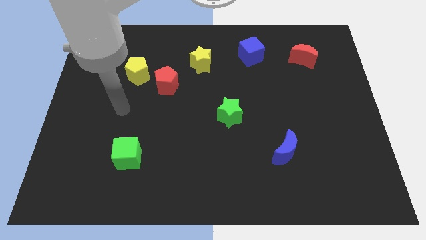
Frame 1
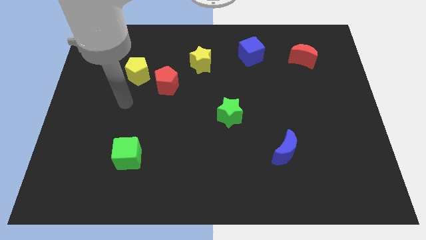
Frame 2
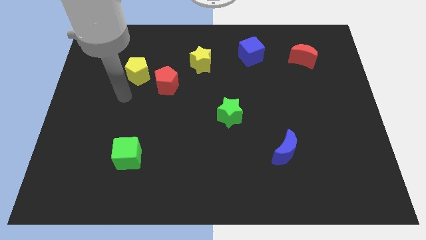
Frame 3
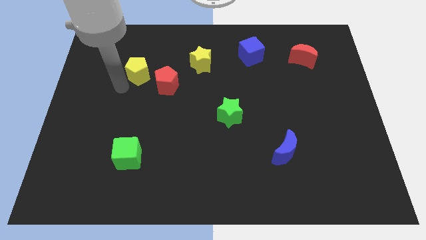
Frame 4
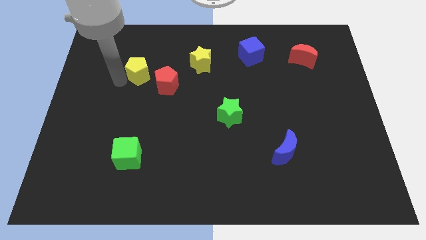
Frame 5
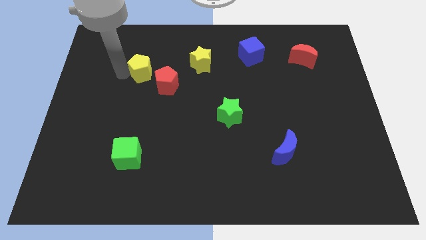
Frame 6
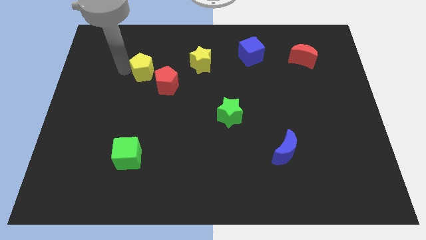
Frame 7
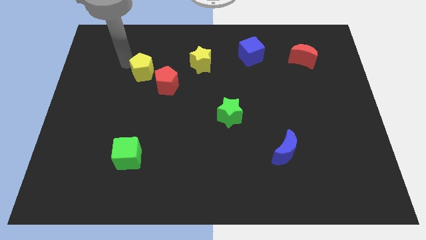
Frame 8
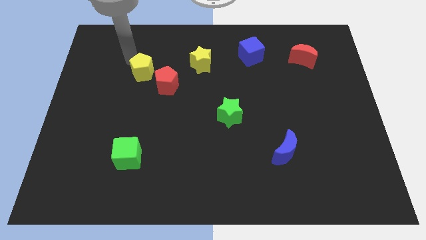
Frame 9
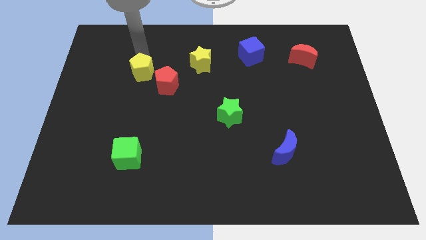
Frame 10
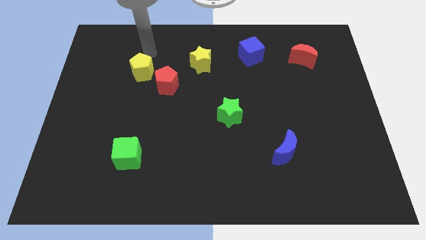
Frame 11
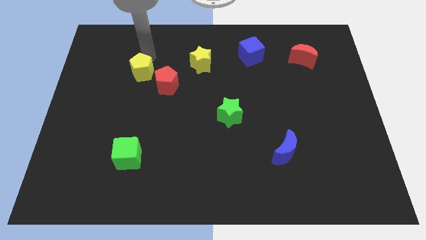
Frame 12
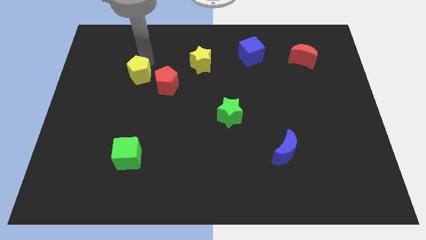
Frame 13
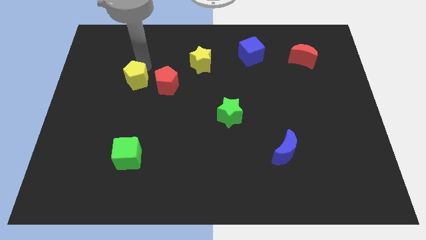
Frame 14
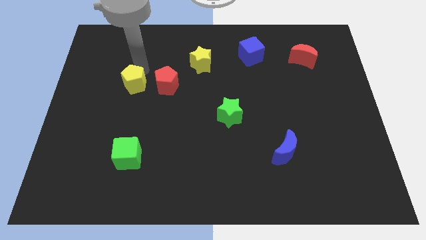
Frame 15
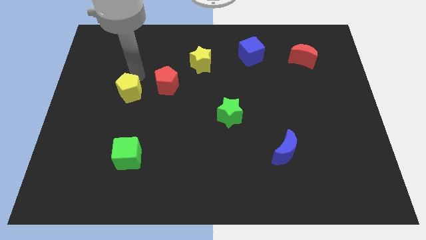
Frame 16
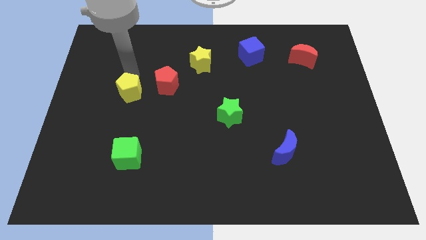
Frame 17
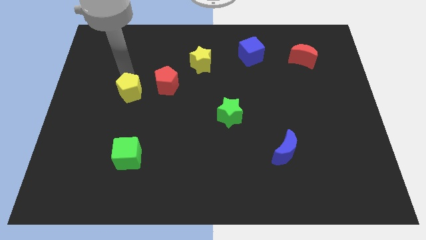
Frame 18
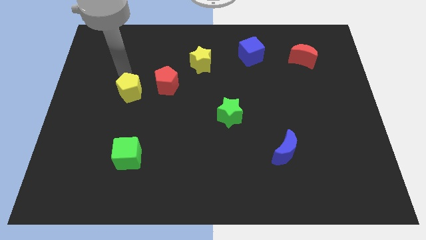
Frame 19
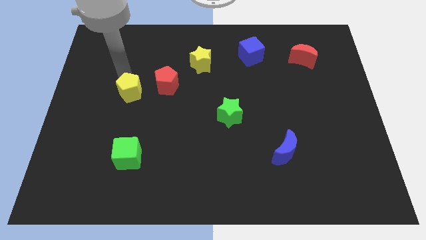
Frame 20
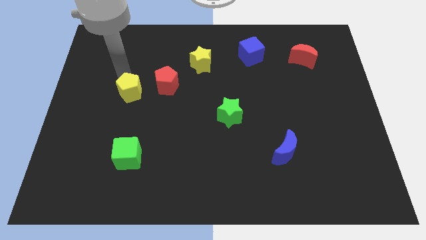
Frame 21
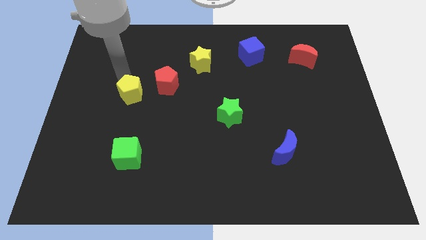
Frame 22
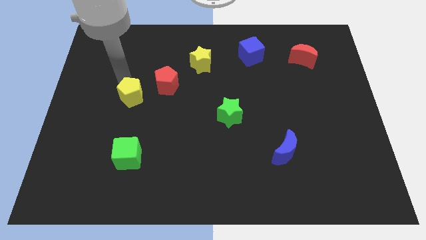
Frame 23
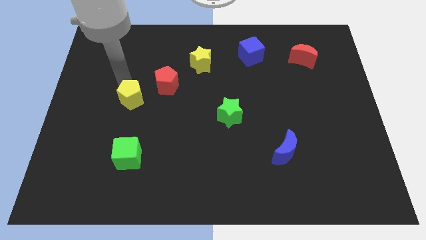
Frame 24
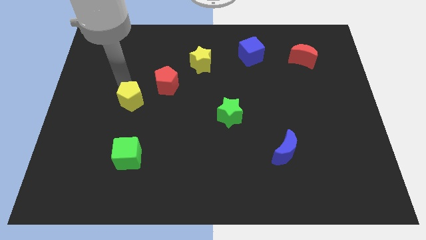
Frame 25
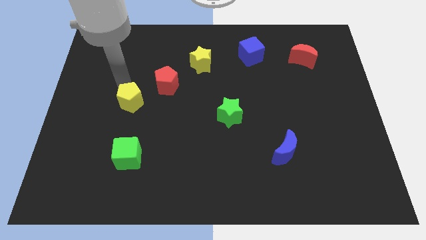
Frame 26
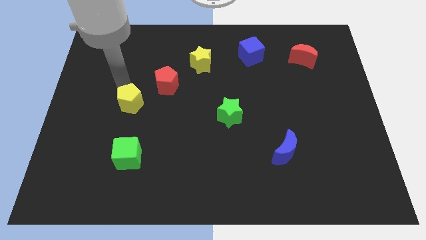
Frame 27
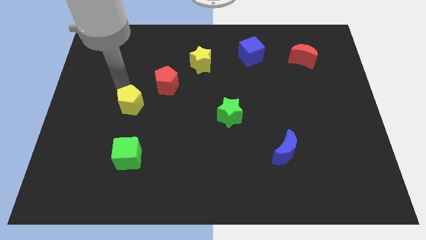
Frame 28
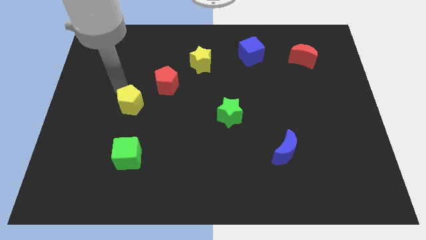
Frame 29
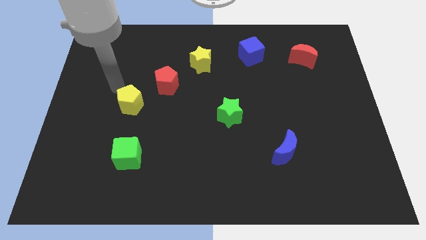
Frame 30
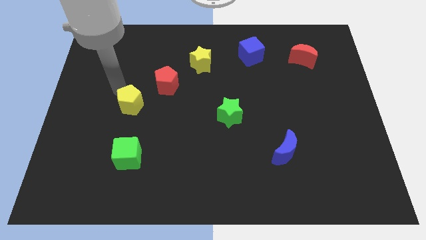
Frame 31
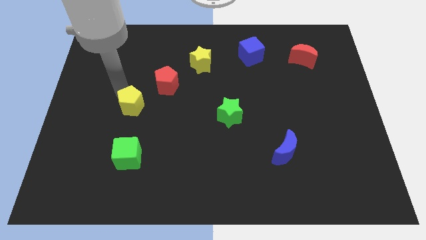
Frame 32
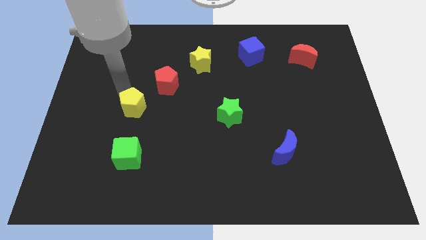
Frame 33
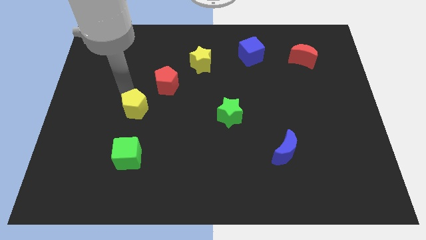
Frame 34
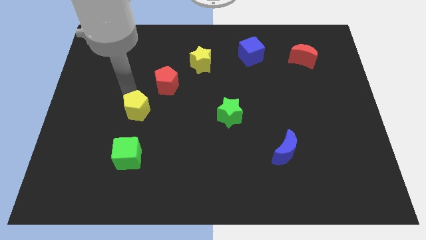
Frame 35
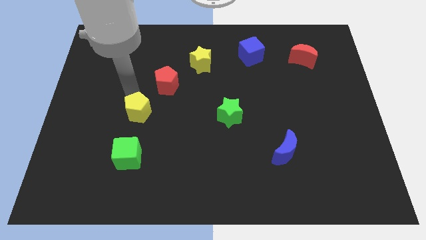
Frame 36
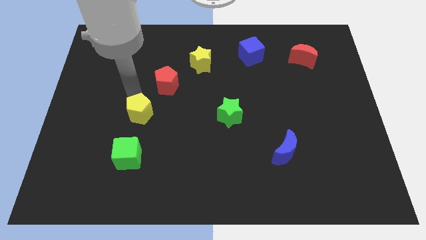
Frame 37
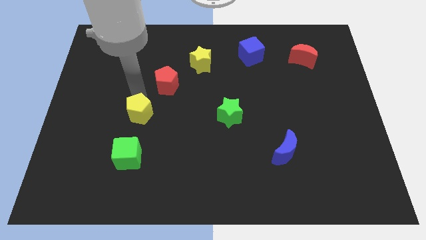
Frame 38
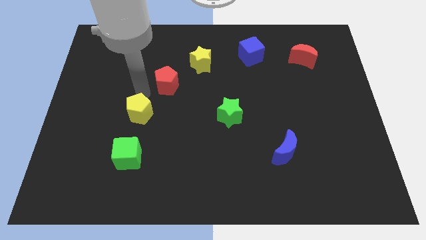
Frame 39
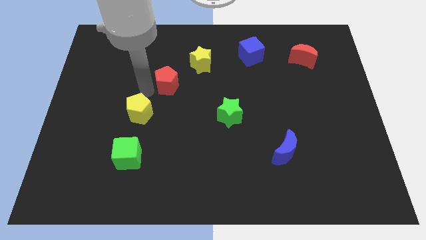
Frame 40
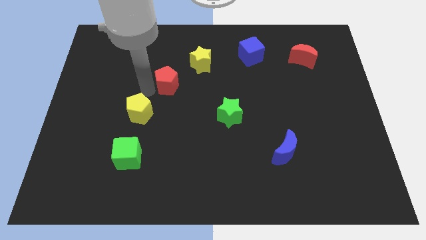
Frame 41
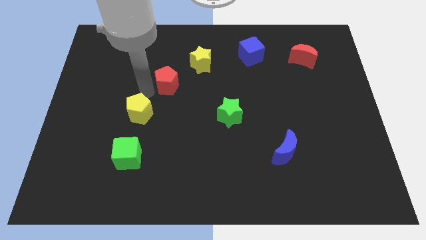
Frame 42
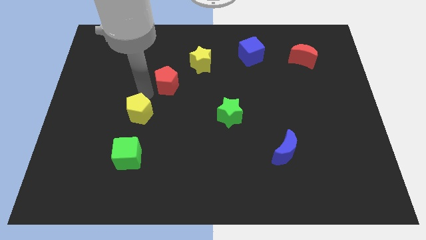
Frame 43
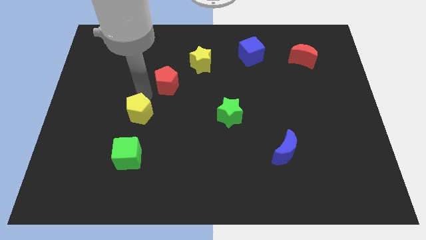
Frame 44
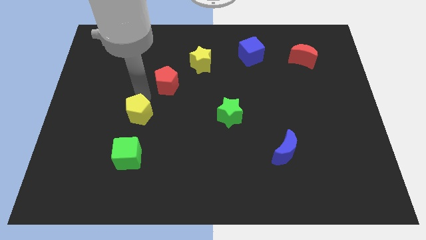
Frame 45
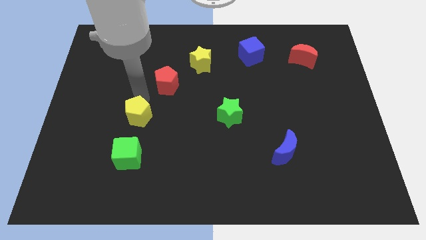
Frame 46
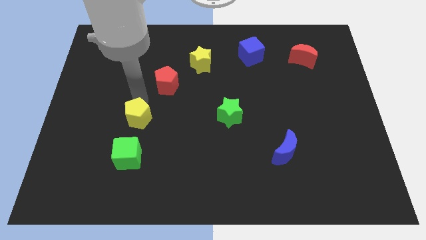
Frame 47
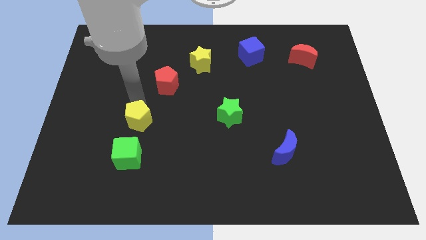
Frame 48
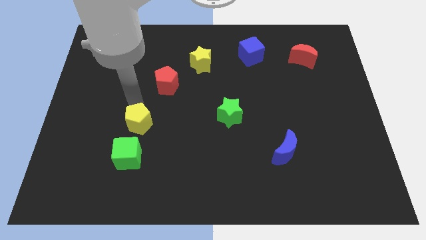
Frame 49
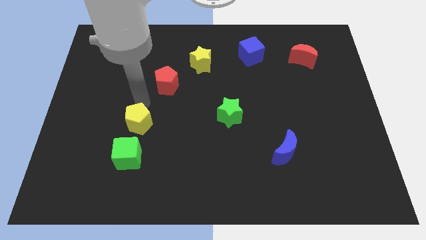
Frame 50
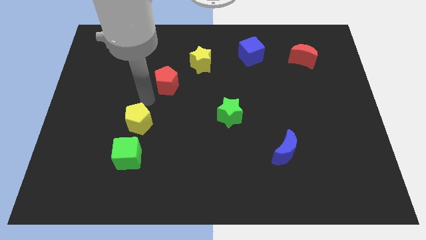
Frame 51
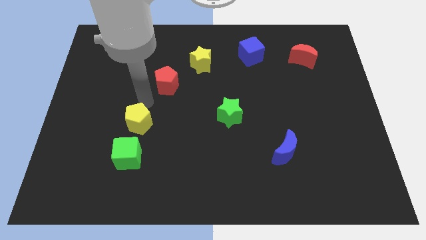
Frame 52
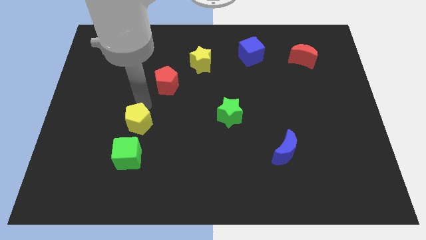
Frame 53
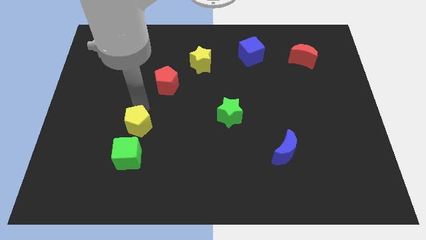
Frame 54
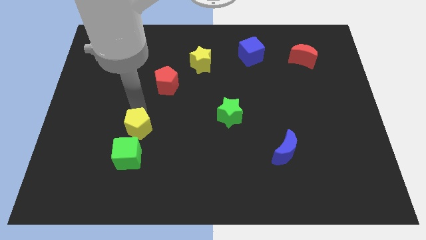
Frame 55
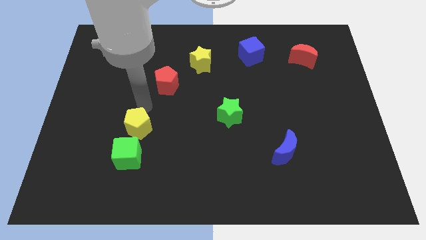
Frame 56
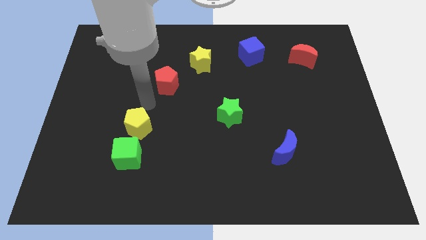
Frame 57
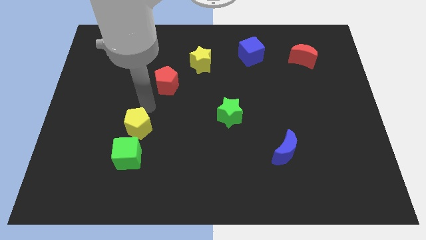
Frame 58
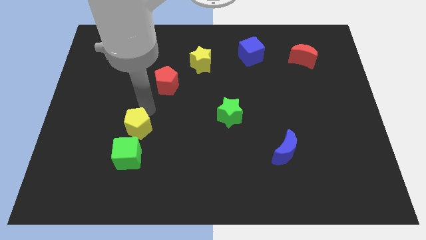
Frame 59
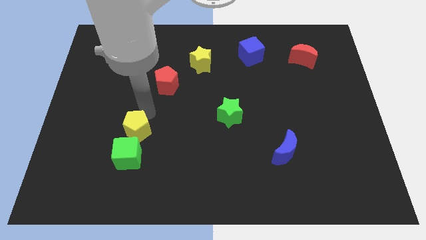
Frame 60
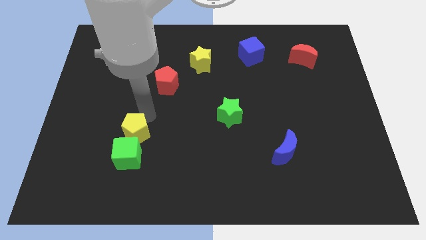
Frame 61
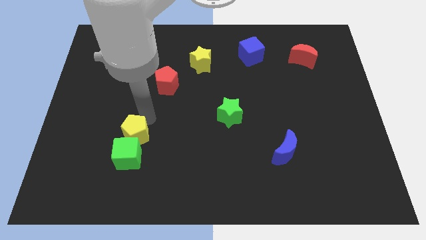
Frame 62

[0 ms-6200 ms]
push the yellow pentagon close to the green cube

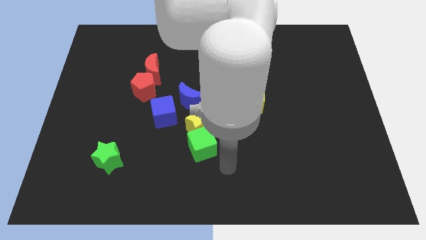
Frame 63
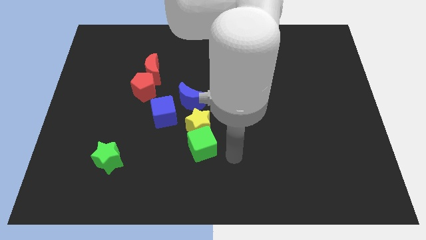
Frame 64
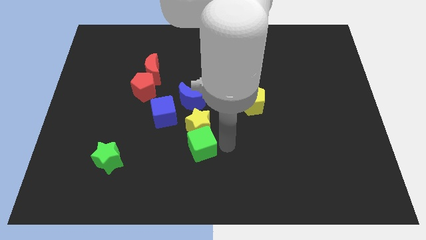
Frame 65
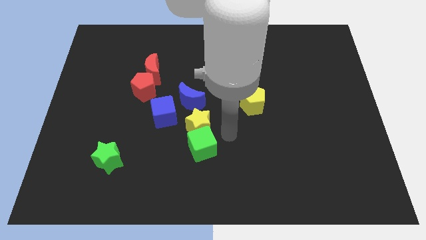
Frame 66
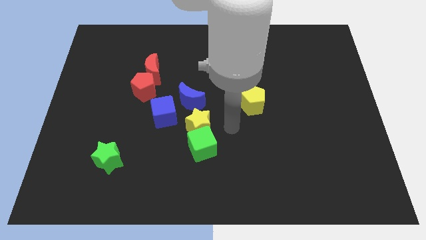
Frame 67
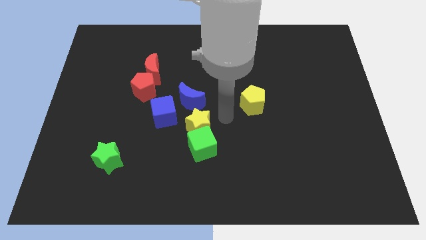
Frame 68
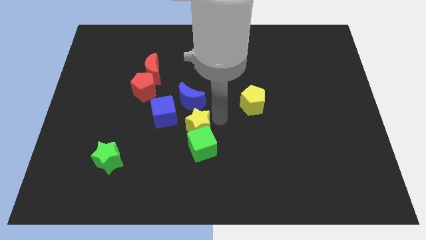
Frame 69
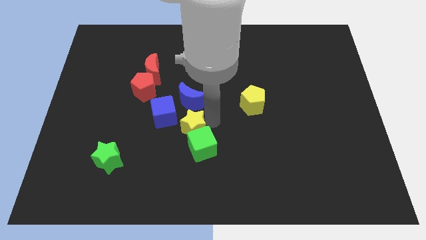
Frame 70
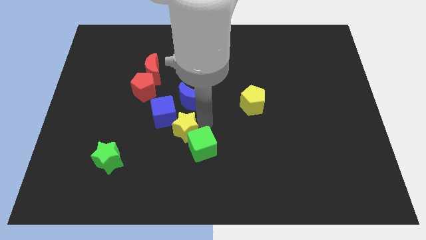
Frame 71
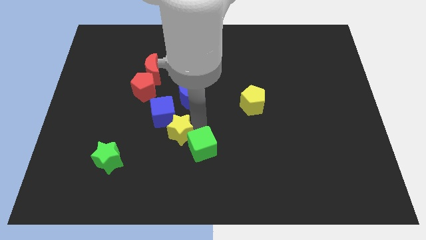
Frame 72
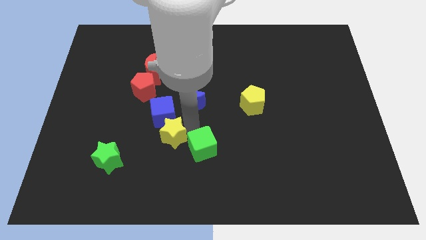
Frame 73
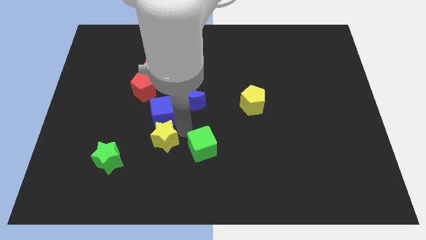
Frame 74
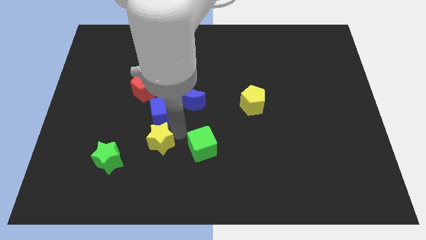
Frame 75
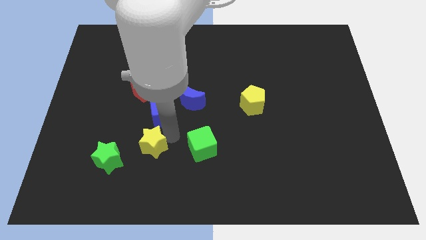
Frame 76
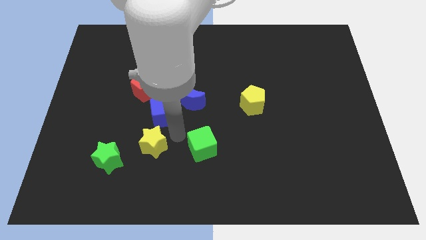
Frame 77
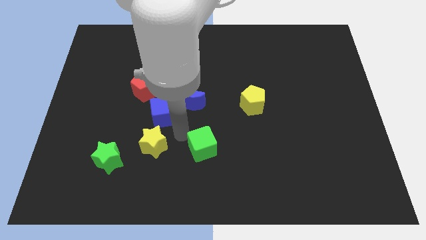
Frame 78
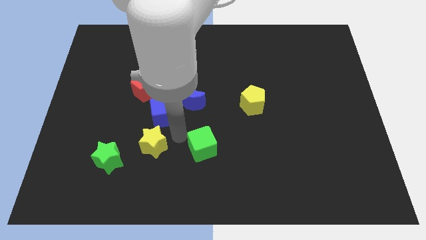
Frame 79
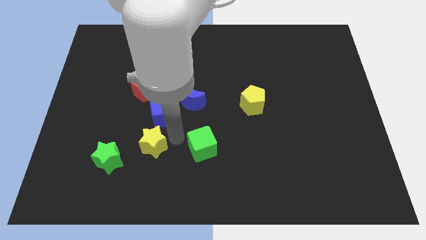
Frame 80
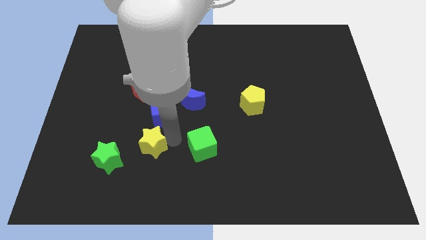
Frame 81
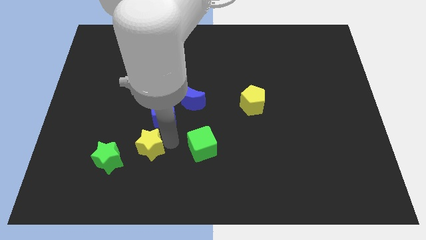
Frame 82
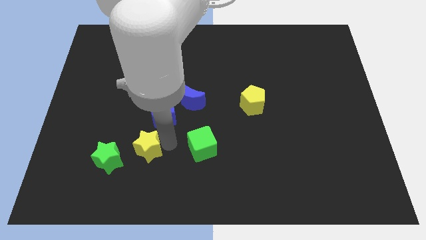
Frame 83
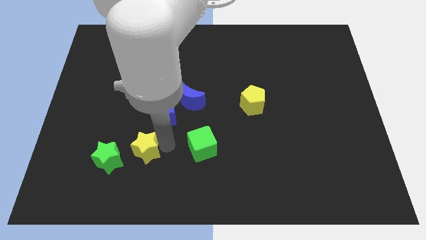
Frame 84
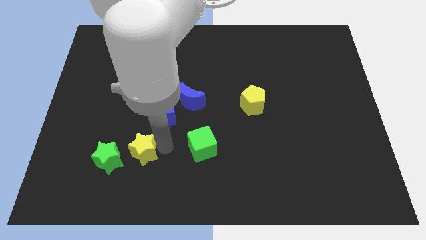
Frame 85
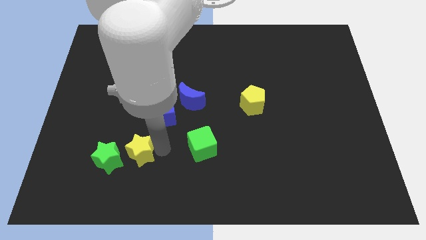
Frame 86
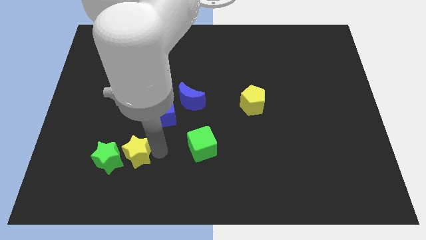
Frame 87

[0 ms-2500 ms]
put the yellow star close to the green star
